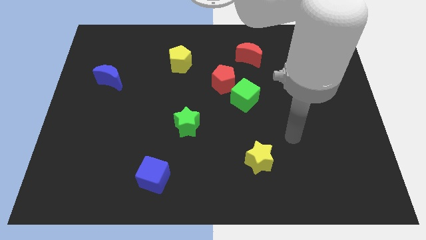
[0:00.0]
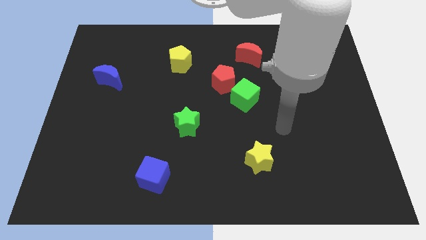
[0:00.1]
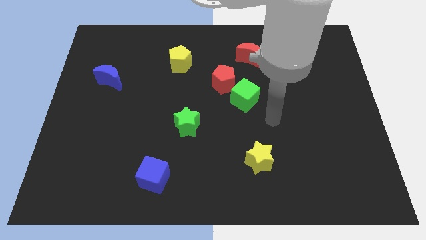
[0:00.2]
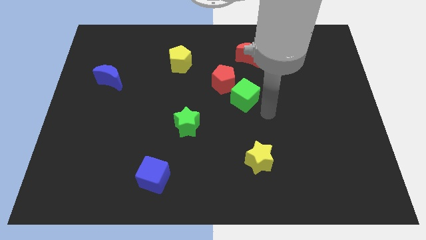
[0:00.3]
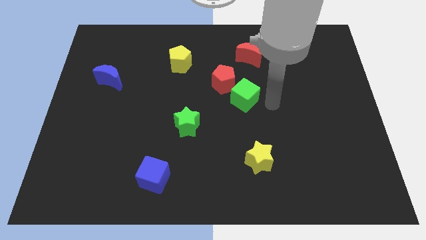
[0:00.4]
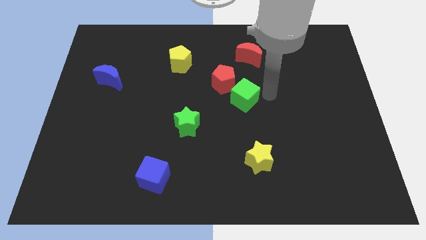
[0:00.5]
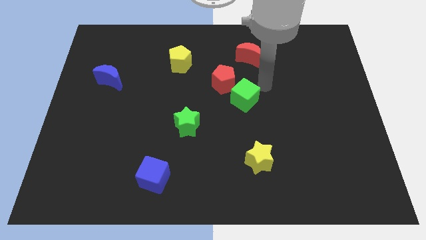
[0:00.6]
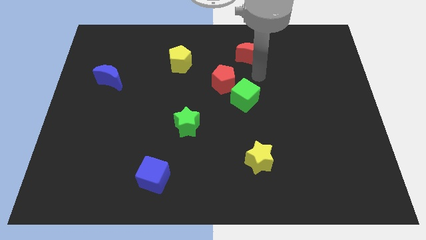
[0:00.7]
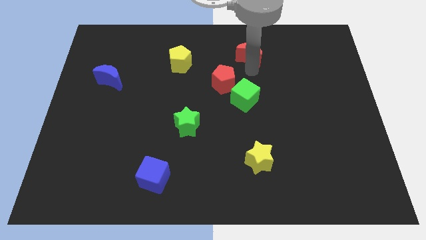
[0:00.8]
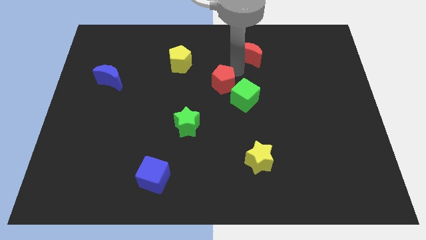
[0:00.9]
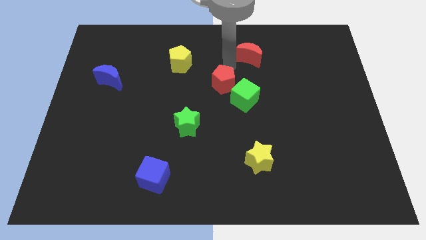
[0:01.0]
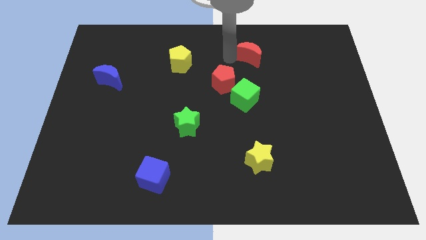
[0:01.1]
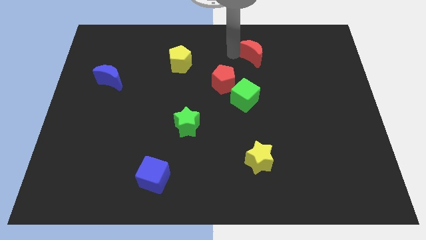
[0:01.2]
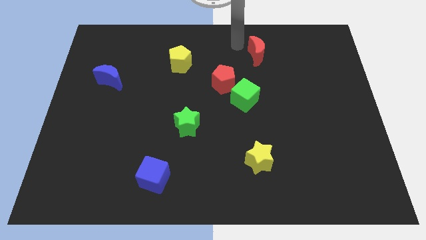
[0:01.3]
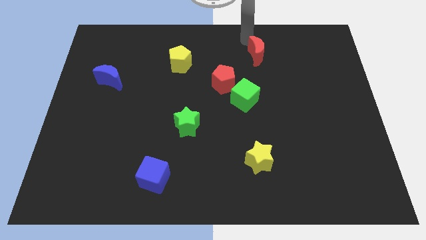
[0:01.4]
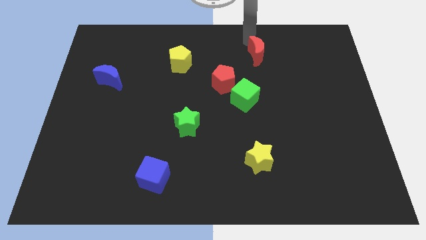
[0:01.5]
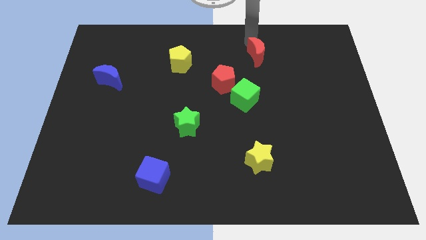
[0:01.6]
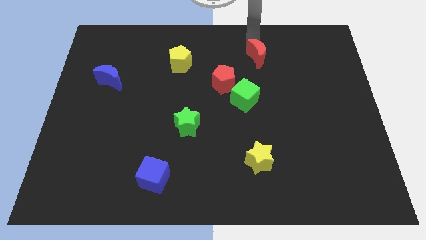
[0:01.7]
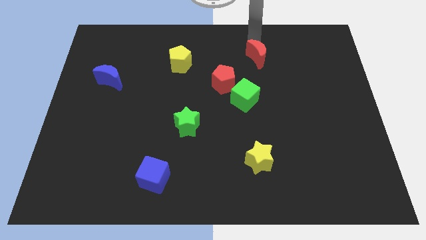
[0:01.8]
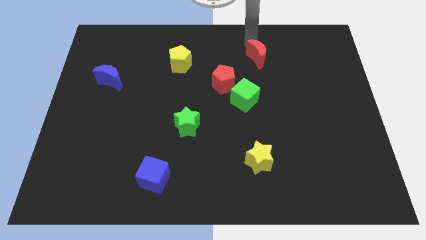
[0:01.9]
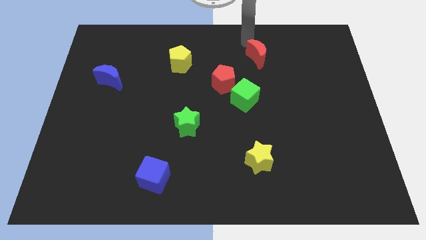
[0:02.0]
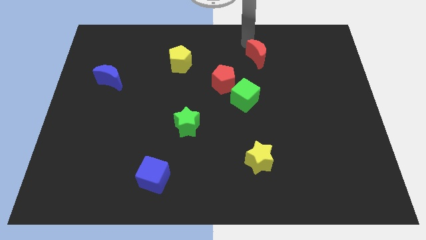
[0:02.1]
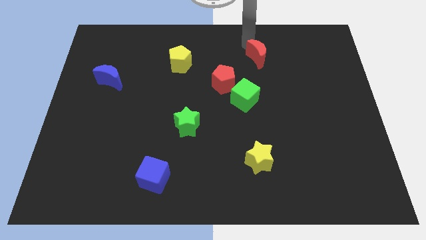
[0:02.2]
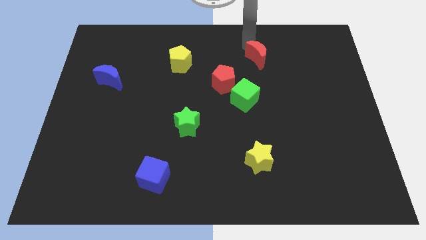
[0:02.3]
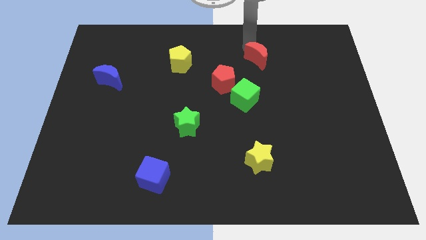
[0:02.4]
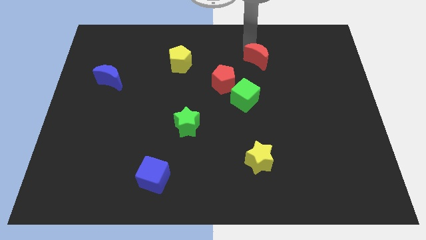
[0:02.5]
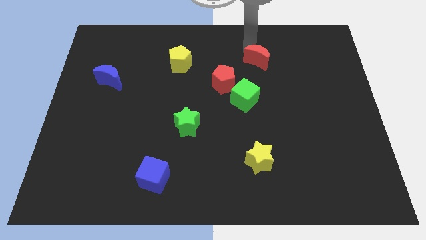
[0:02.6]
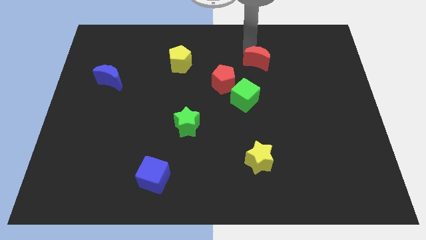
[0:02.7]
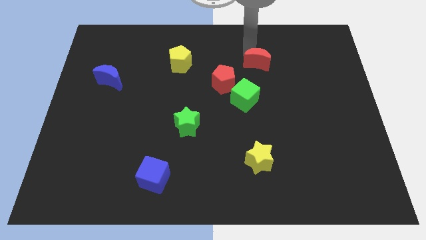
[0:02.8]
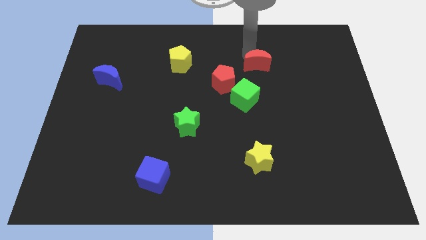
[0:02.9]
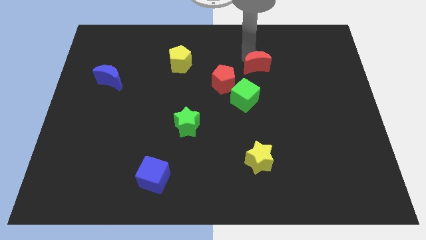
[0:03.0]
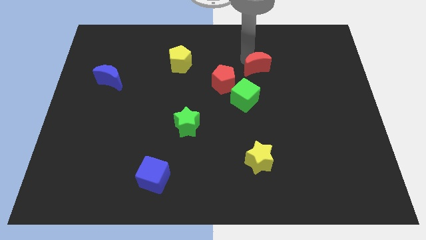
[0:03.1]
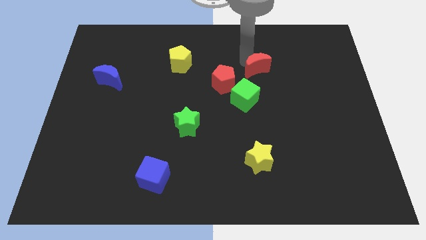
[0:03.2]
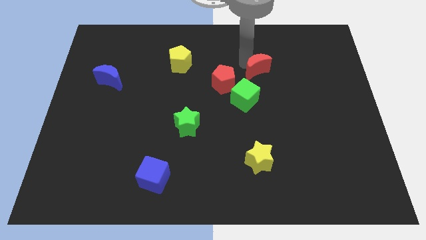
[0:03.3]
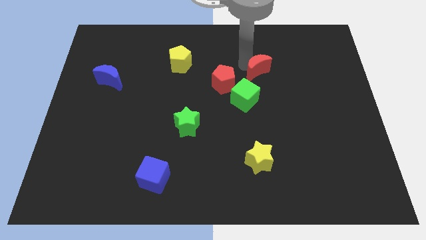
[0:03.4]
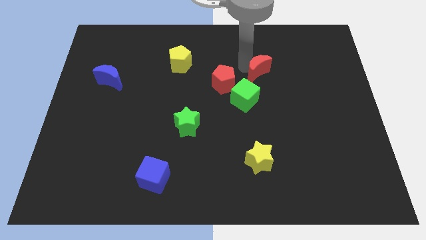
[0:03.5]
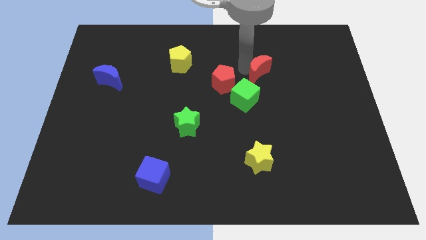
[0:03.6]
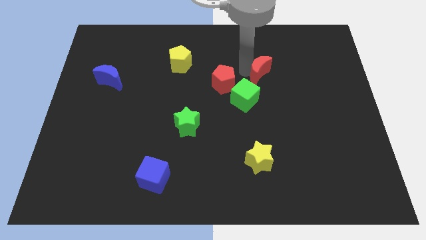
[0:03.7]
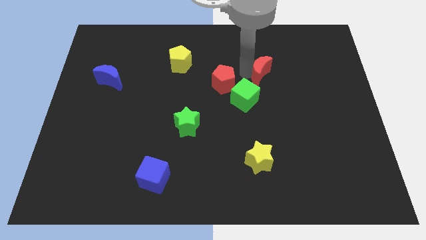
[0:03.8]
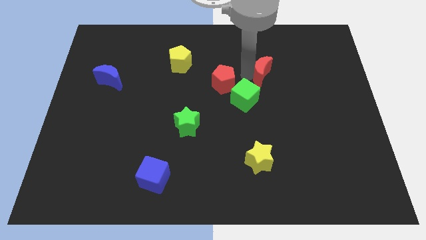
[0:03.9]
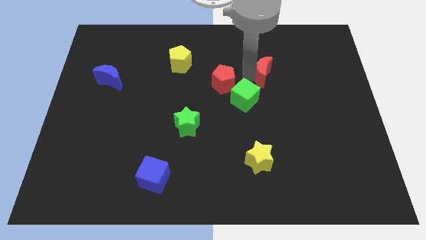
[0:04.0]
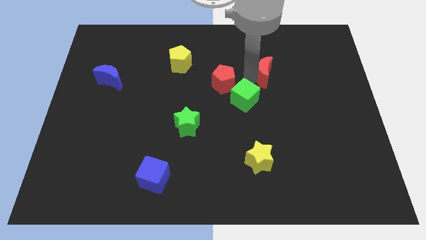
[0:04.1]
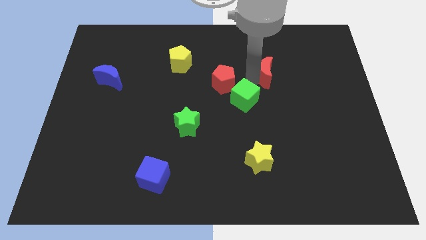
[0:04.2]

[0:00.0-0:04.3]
slightly push the red moon down and then to the right

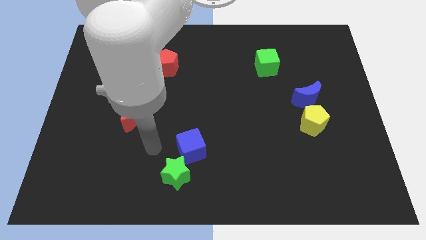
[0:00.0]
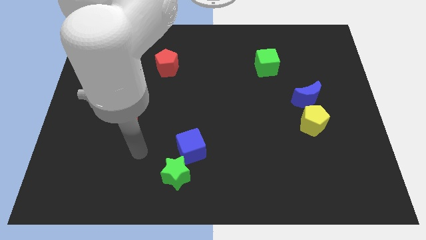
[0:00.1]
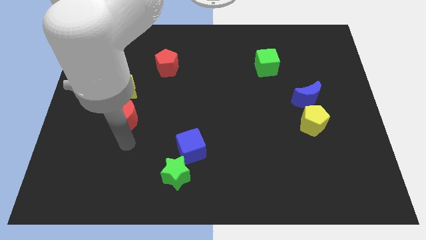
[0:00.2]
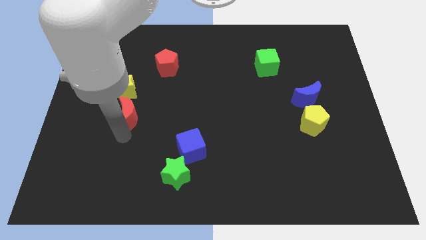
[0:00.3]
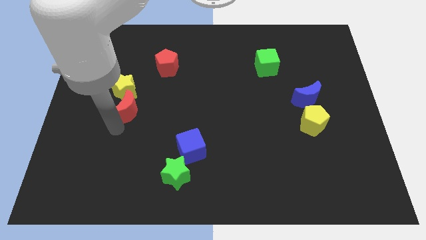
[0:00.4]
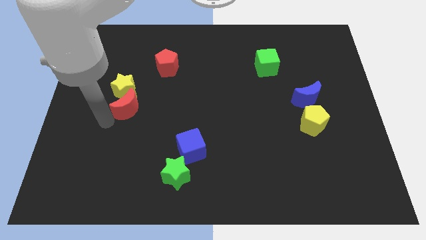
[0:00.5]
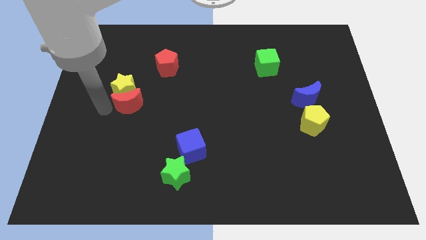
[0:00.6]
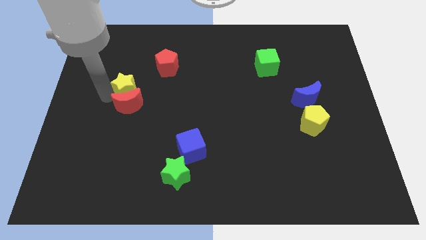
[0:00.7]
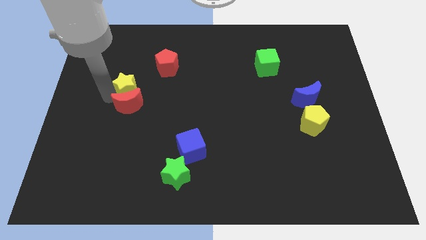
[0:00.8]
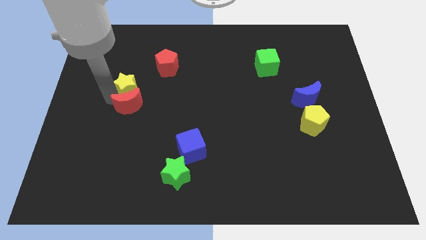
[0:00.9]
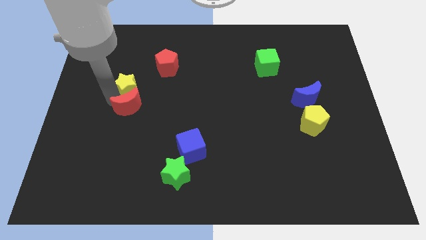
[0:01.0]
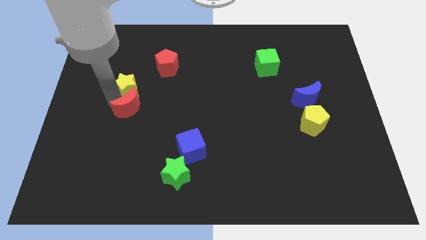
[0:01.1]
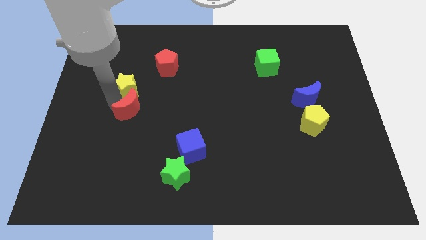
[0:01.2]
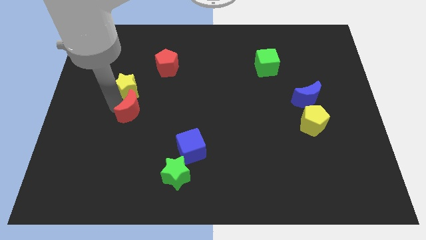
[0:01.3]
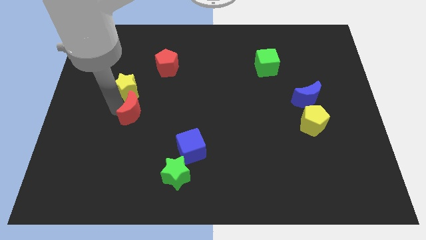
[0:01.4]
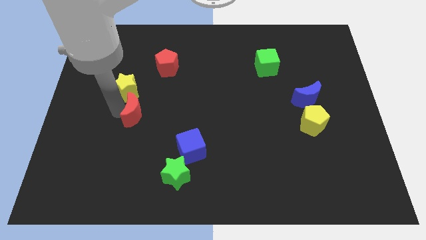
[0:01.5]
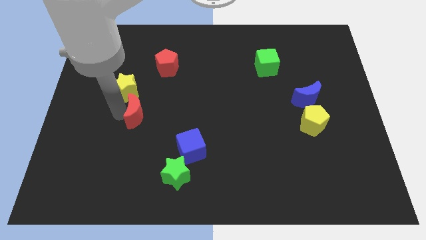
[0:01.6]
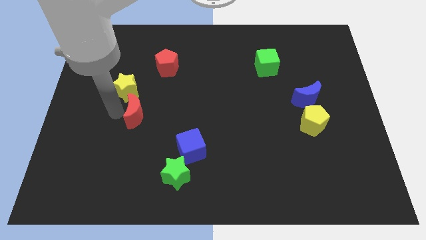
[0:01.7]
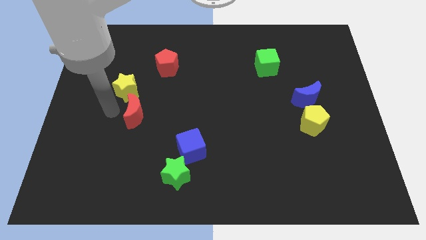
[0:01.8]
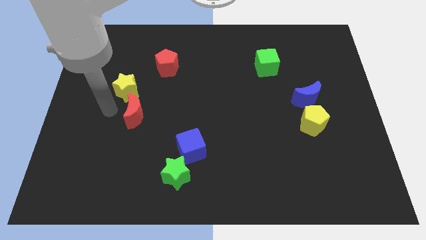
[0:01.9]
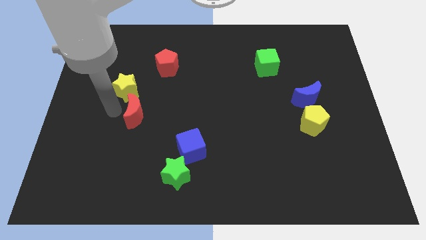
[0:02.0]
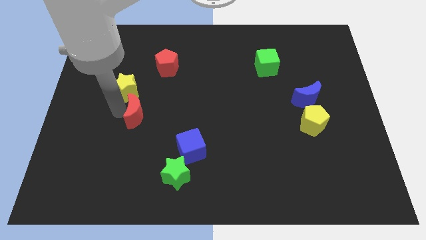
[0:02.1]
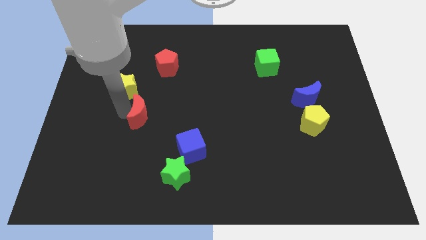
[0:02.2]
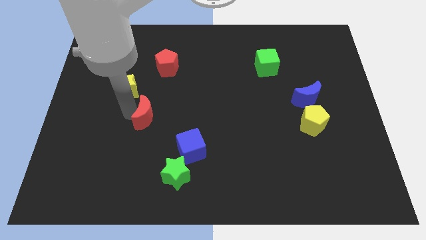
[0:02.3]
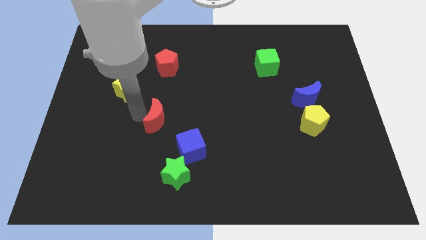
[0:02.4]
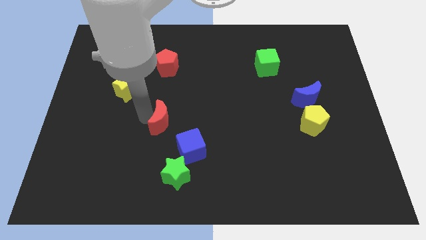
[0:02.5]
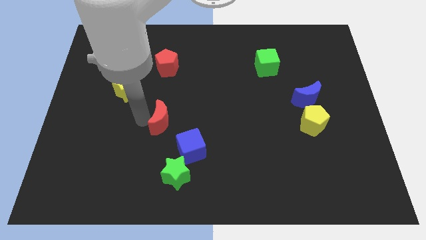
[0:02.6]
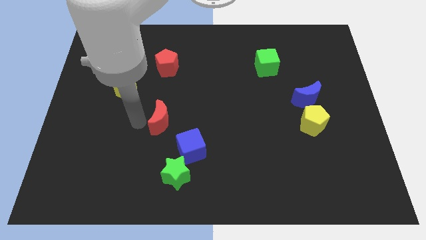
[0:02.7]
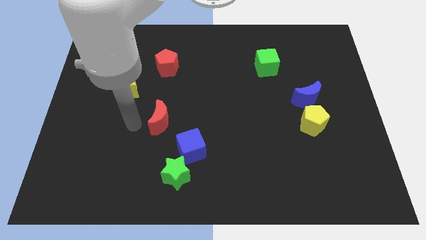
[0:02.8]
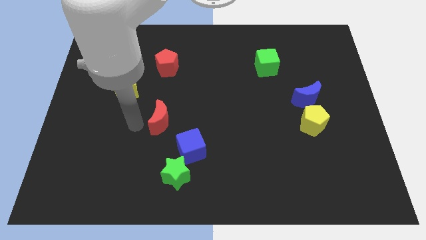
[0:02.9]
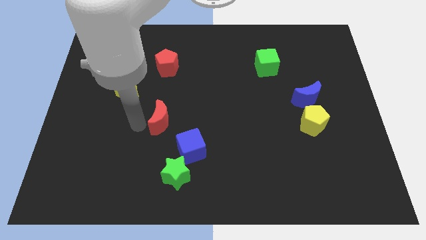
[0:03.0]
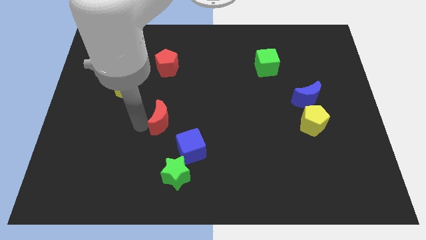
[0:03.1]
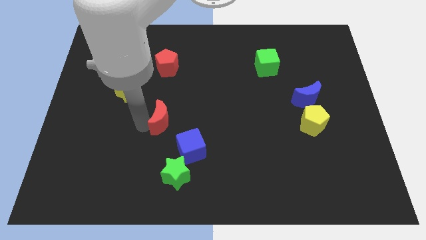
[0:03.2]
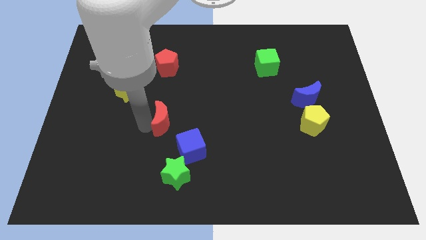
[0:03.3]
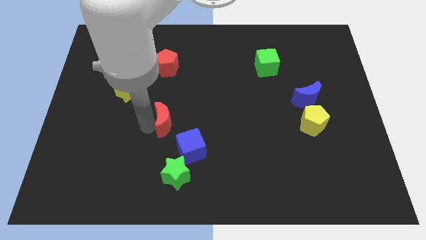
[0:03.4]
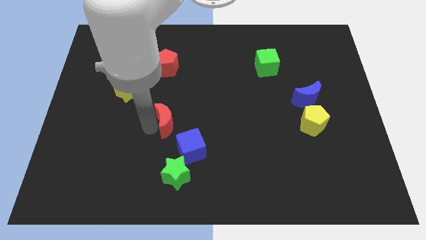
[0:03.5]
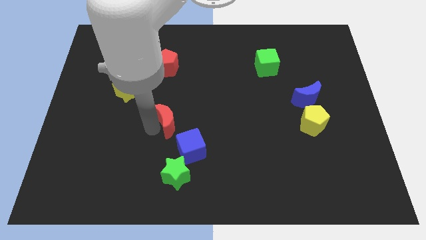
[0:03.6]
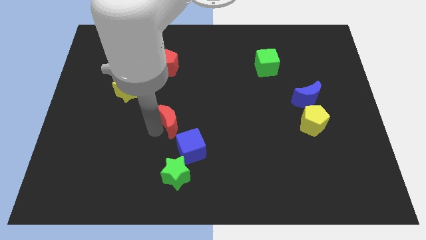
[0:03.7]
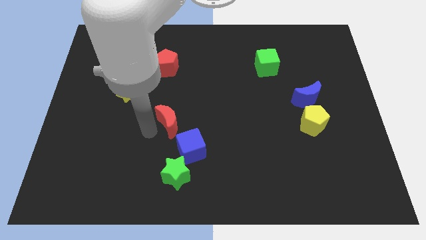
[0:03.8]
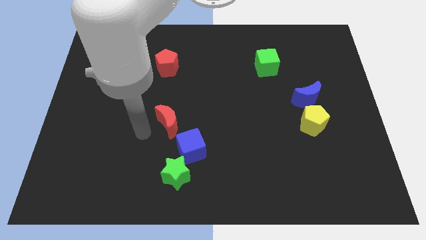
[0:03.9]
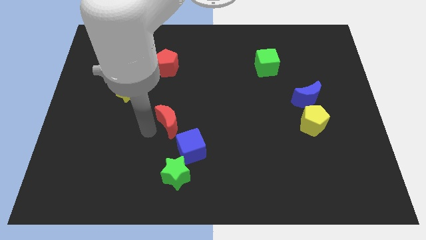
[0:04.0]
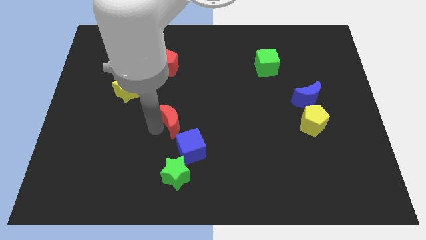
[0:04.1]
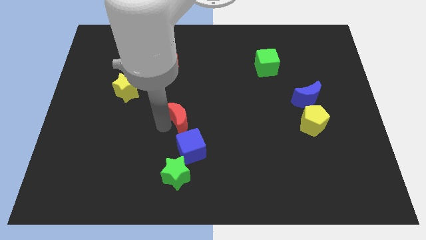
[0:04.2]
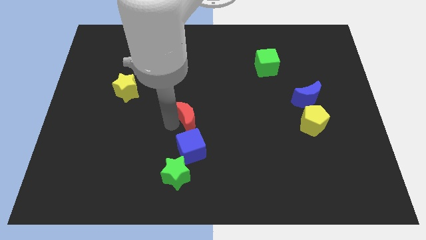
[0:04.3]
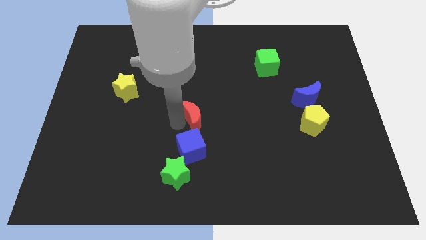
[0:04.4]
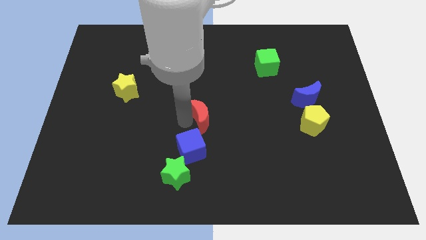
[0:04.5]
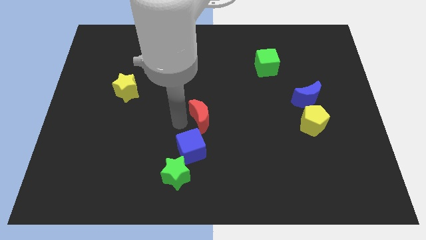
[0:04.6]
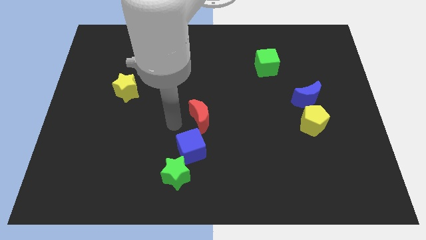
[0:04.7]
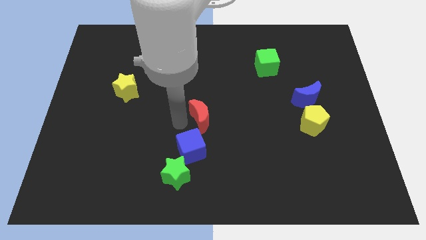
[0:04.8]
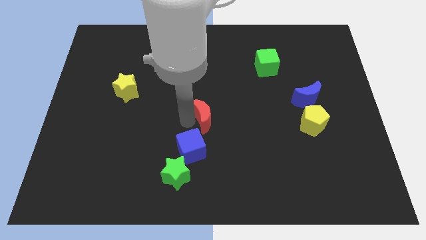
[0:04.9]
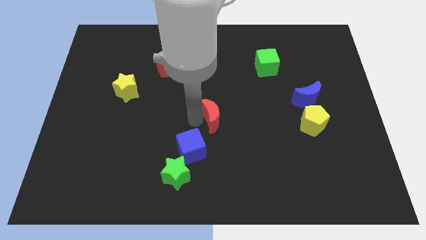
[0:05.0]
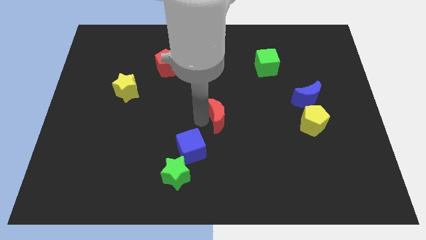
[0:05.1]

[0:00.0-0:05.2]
slide the red moon right
